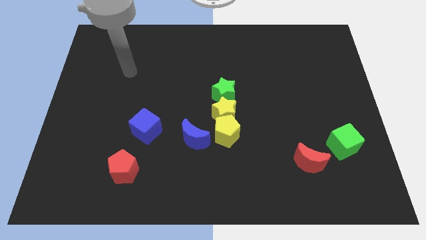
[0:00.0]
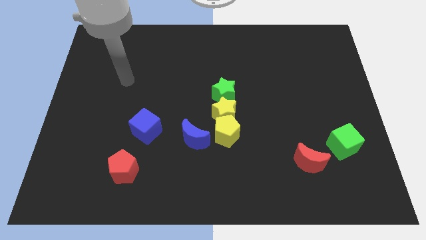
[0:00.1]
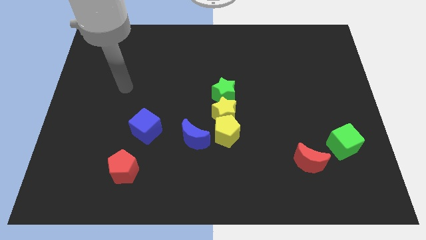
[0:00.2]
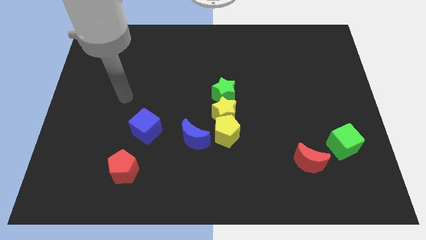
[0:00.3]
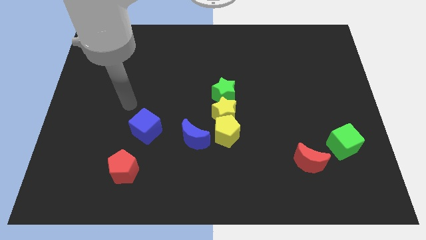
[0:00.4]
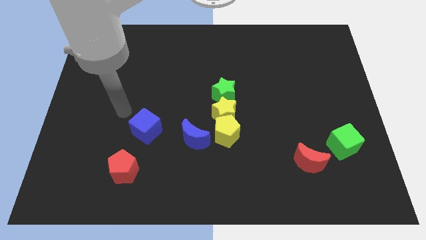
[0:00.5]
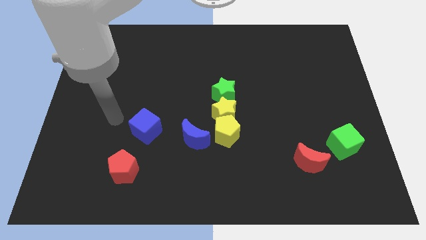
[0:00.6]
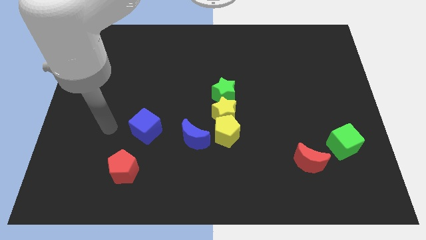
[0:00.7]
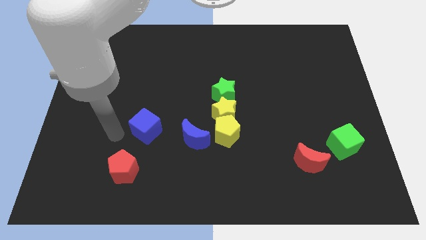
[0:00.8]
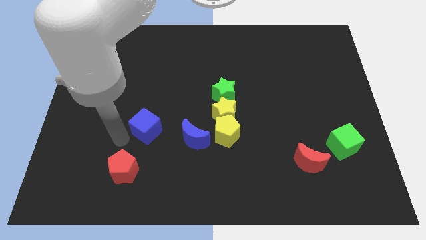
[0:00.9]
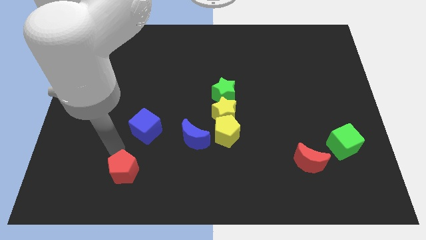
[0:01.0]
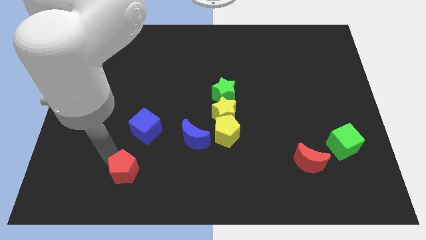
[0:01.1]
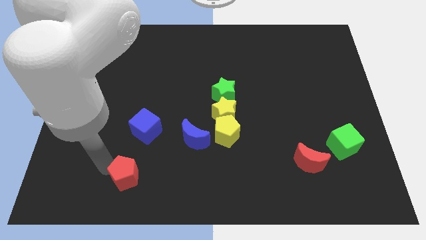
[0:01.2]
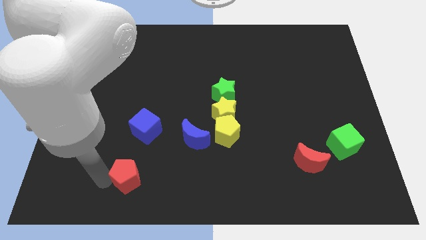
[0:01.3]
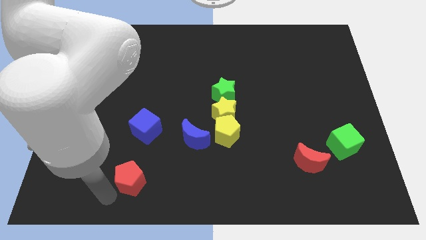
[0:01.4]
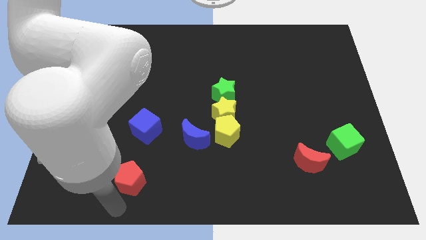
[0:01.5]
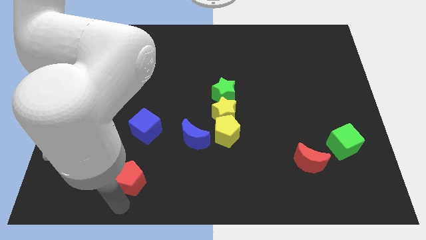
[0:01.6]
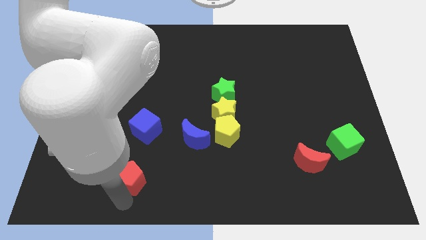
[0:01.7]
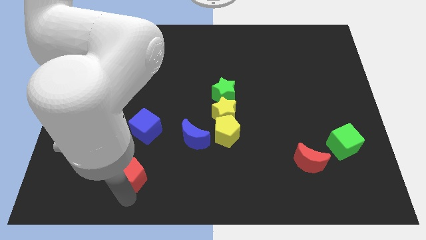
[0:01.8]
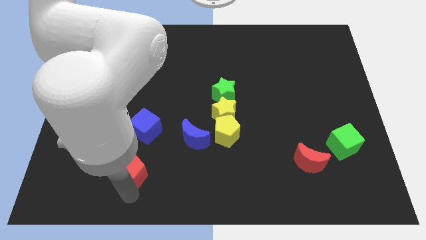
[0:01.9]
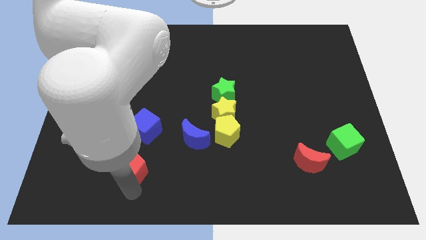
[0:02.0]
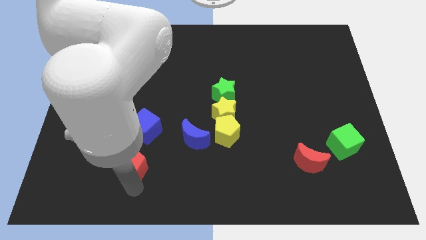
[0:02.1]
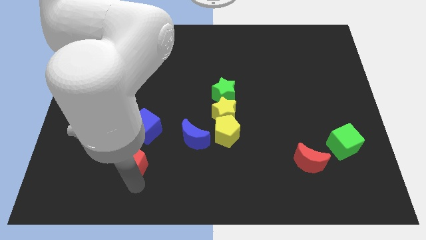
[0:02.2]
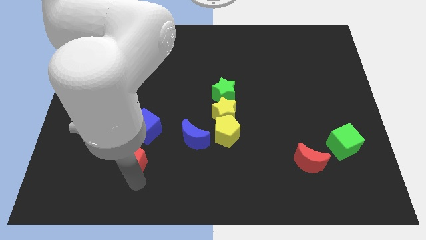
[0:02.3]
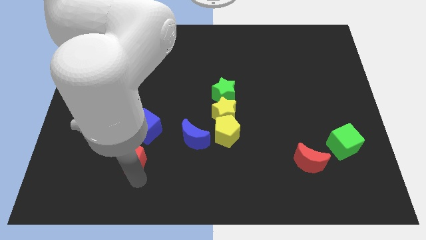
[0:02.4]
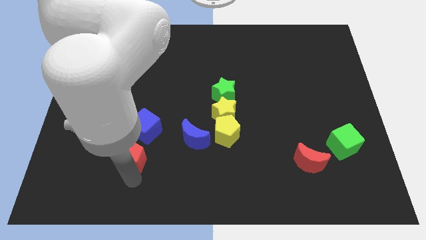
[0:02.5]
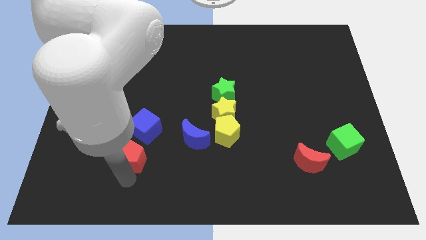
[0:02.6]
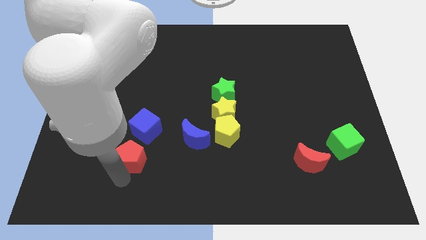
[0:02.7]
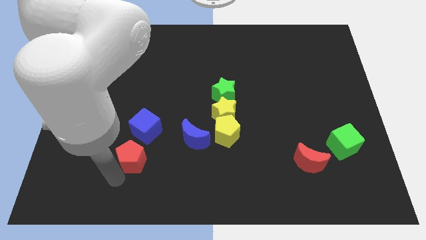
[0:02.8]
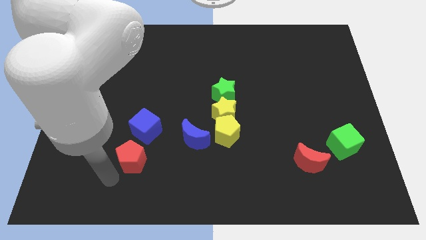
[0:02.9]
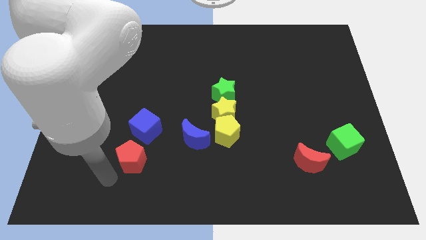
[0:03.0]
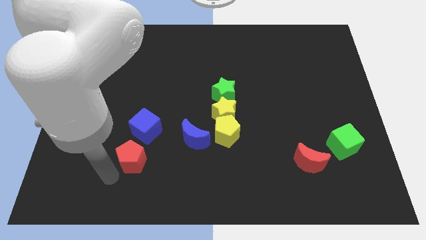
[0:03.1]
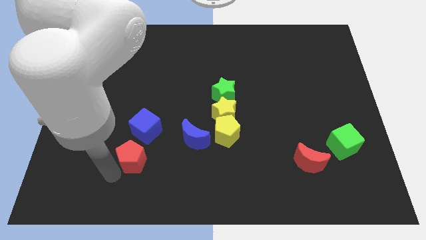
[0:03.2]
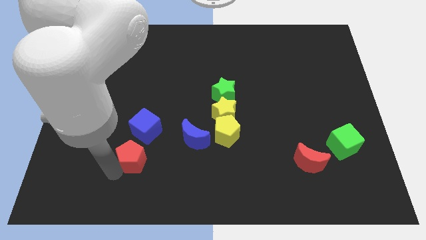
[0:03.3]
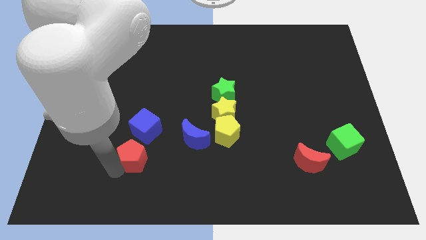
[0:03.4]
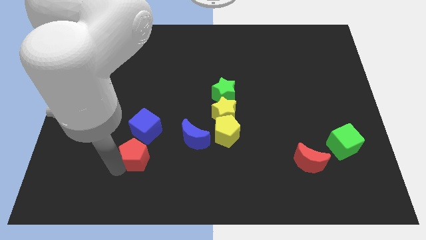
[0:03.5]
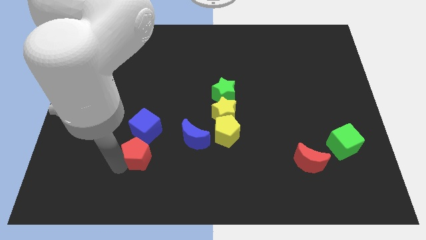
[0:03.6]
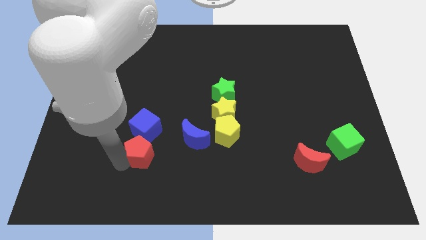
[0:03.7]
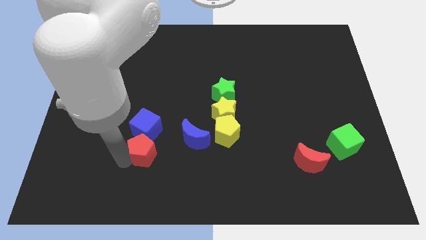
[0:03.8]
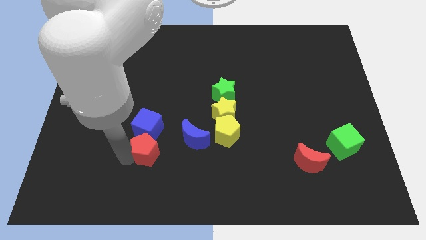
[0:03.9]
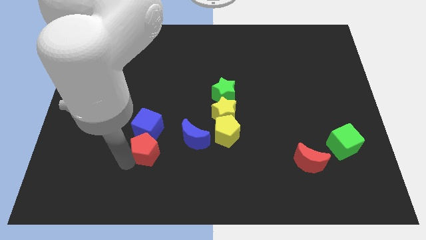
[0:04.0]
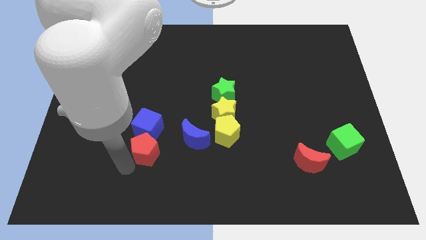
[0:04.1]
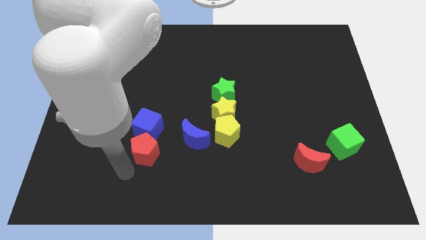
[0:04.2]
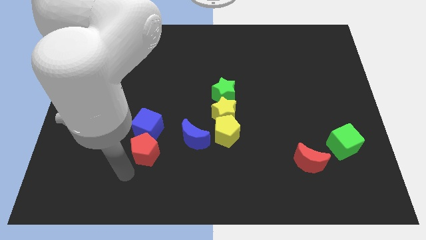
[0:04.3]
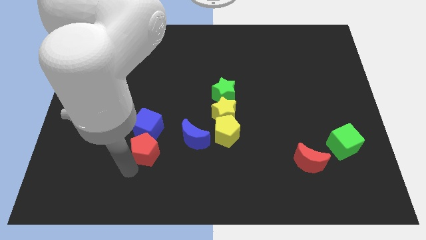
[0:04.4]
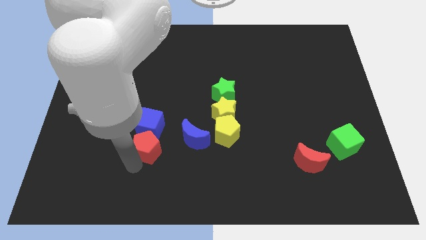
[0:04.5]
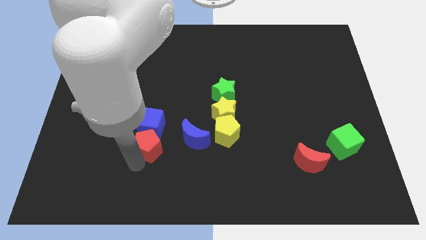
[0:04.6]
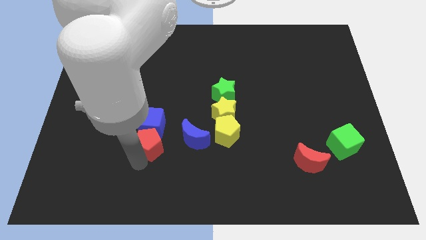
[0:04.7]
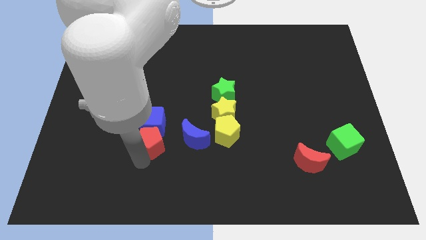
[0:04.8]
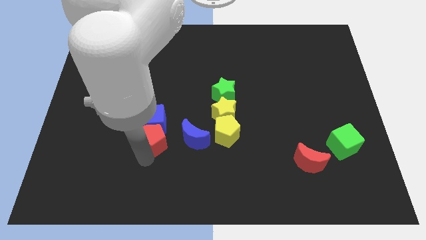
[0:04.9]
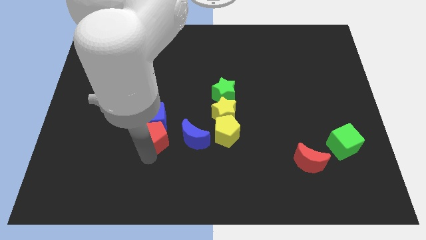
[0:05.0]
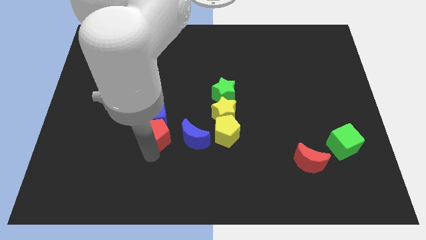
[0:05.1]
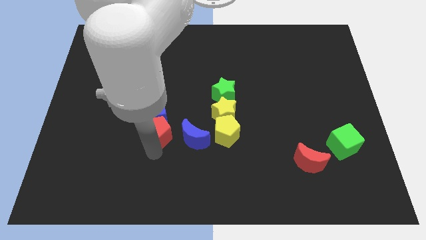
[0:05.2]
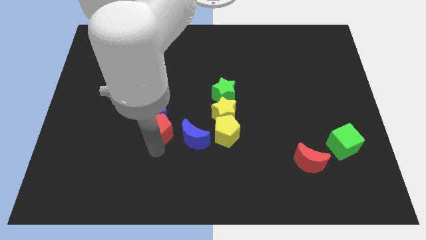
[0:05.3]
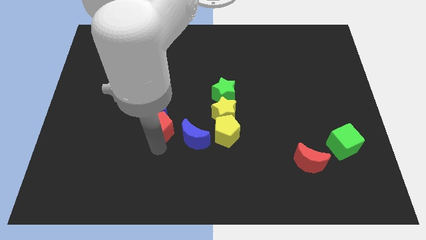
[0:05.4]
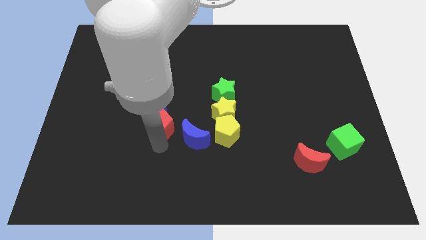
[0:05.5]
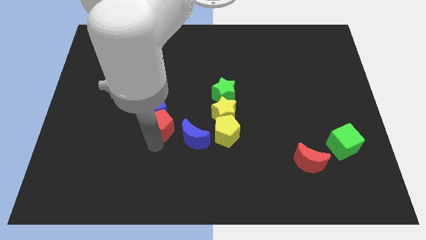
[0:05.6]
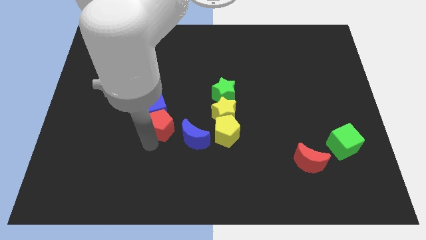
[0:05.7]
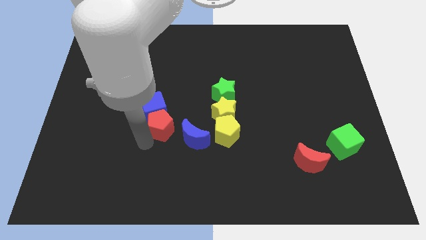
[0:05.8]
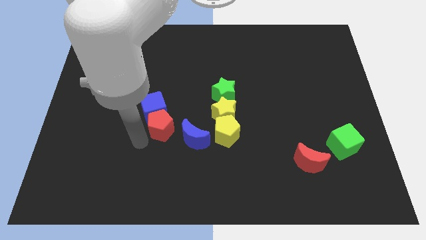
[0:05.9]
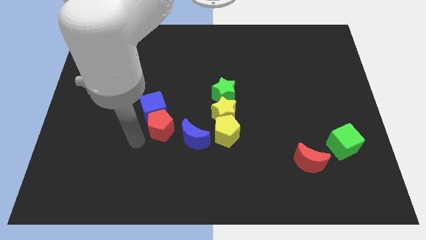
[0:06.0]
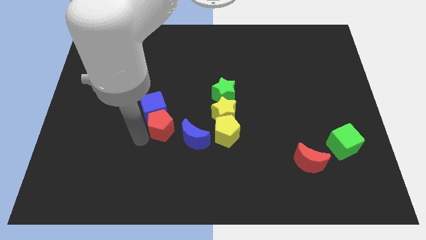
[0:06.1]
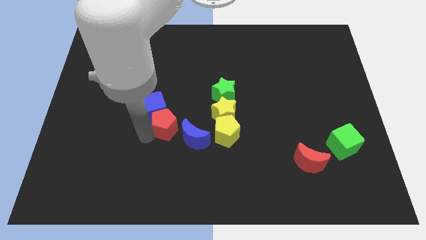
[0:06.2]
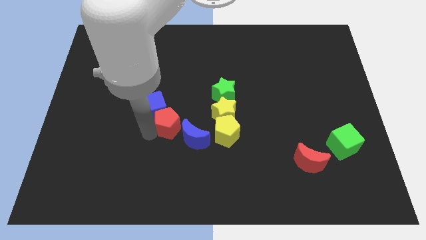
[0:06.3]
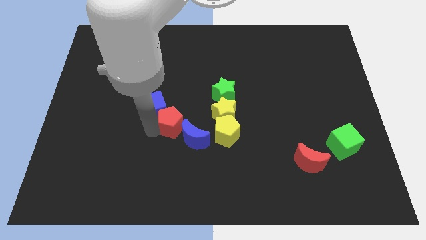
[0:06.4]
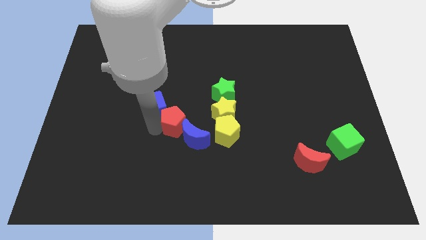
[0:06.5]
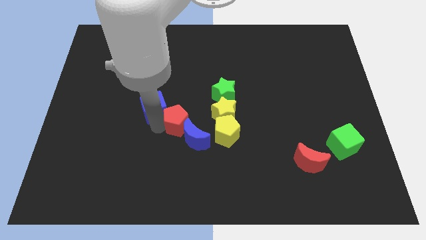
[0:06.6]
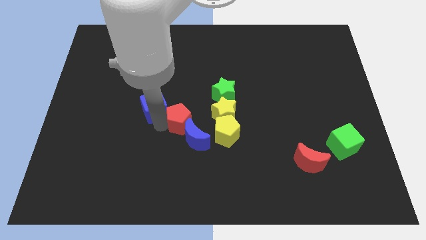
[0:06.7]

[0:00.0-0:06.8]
push the red pentagon diagonally down and to the left of the green star

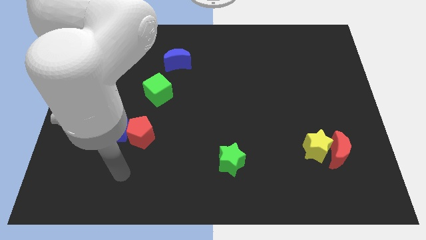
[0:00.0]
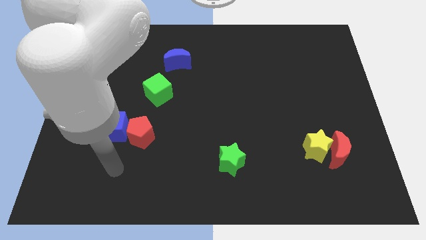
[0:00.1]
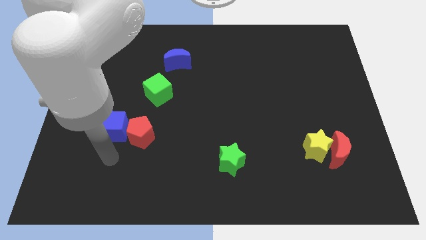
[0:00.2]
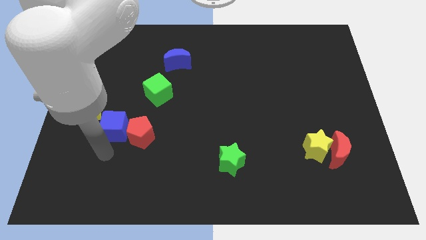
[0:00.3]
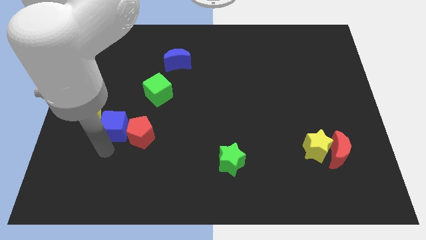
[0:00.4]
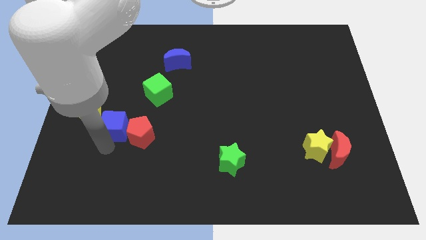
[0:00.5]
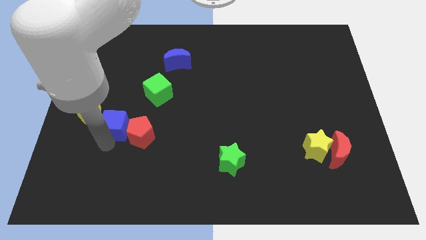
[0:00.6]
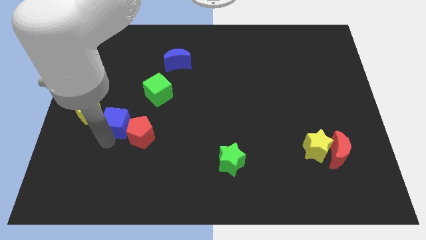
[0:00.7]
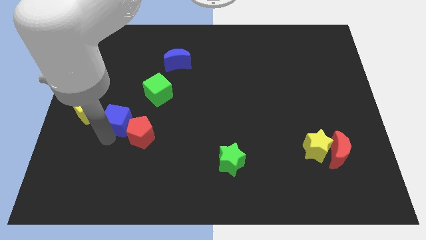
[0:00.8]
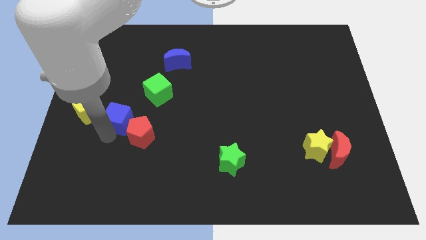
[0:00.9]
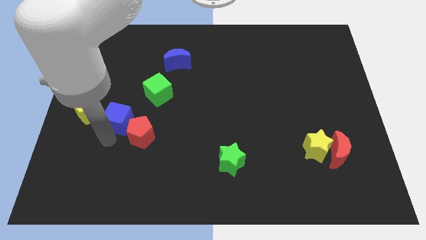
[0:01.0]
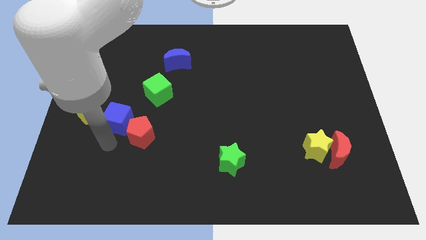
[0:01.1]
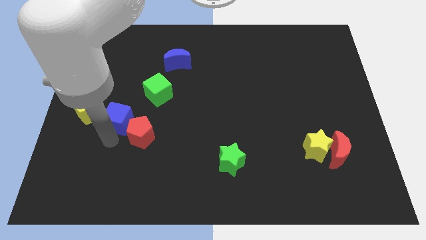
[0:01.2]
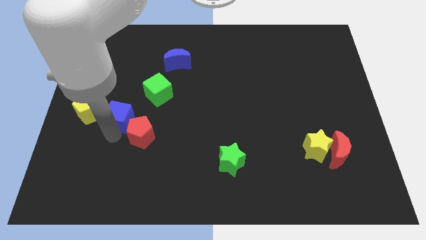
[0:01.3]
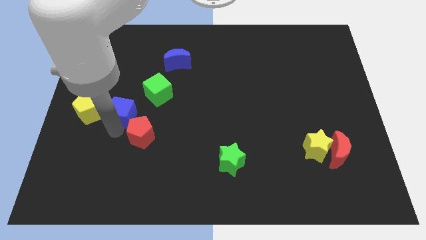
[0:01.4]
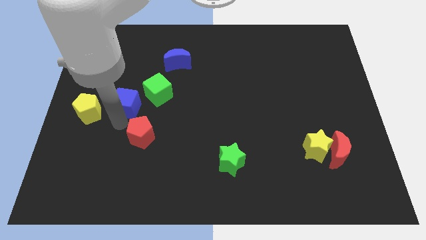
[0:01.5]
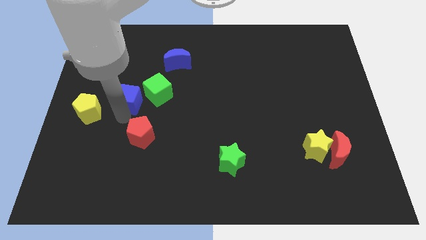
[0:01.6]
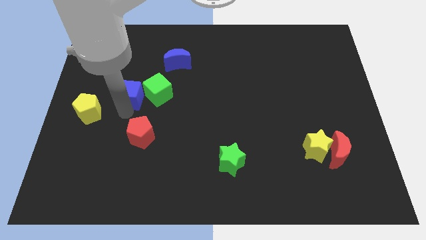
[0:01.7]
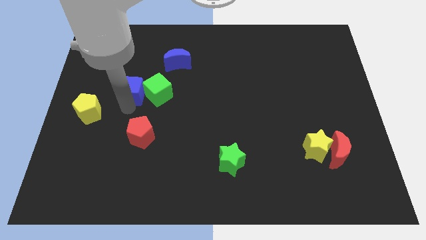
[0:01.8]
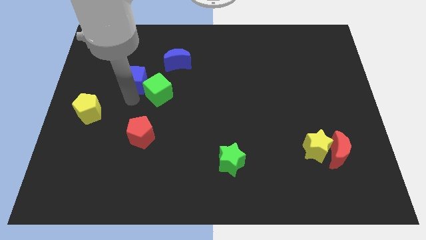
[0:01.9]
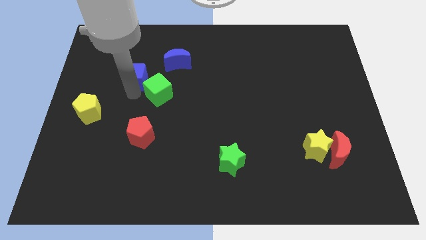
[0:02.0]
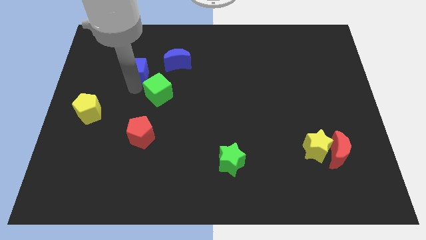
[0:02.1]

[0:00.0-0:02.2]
put the blue cube to the left side of the blue moon
